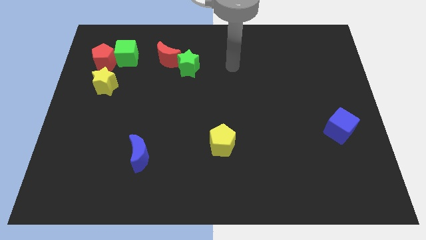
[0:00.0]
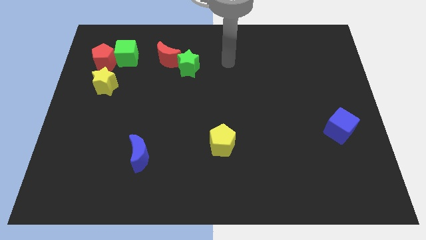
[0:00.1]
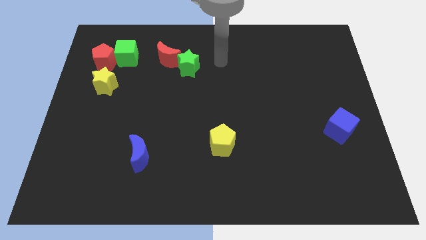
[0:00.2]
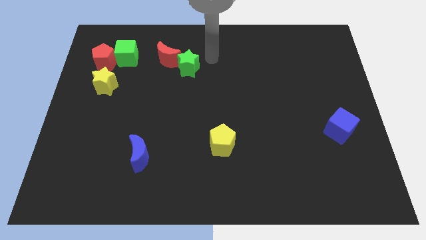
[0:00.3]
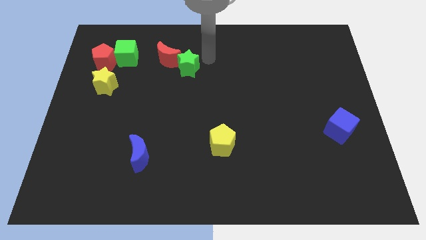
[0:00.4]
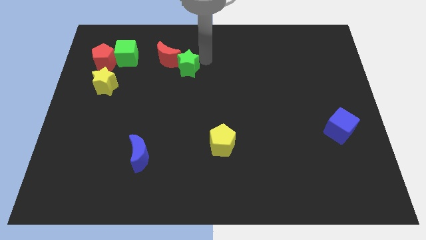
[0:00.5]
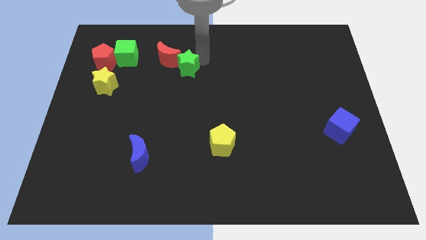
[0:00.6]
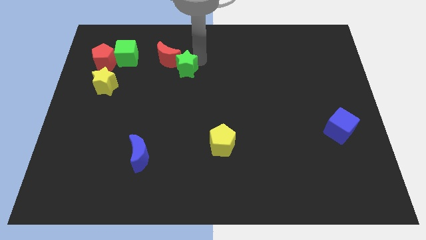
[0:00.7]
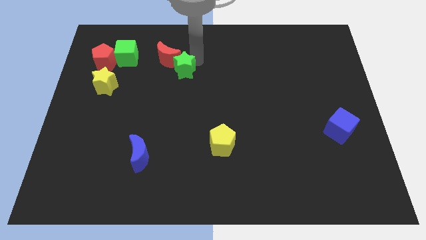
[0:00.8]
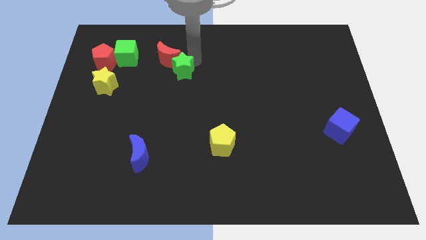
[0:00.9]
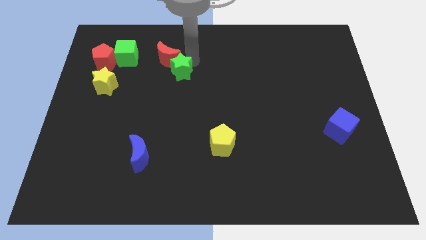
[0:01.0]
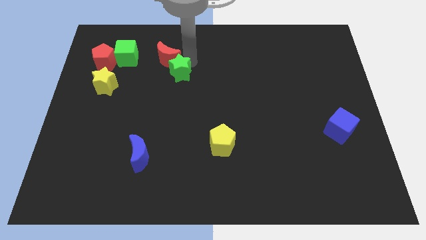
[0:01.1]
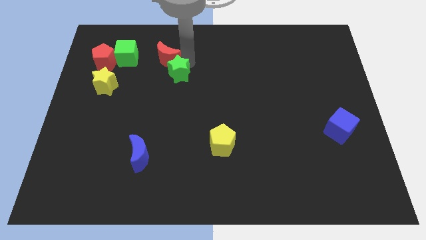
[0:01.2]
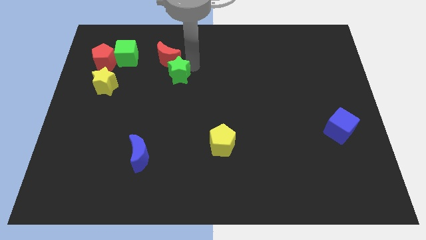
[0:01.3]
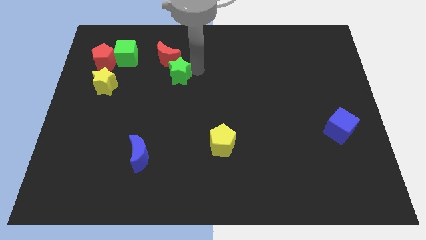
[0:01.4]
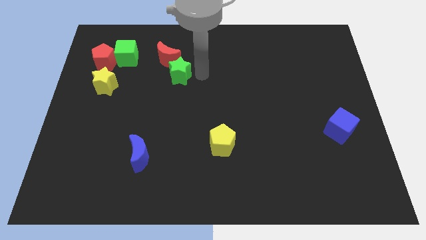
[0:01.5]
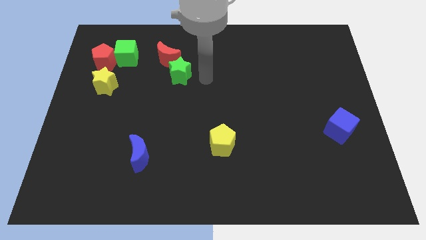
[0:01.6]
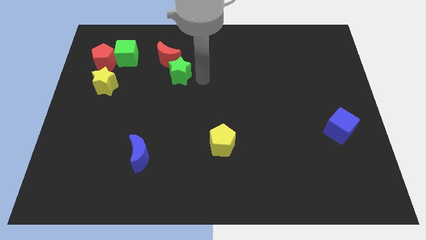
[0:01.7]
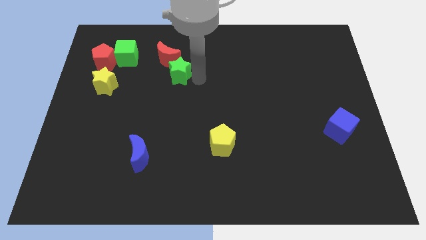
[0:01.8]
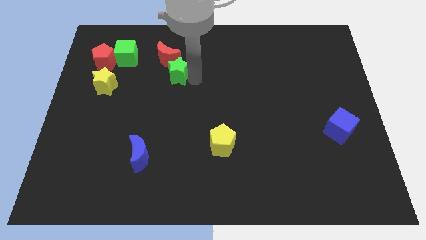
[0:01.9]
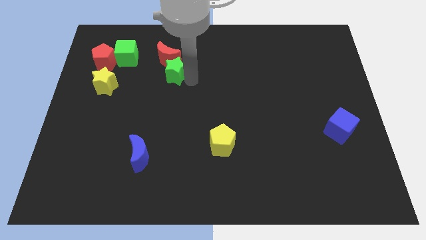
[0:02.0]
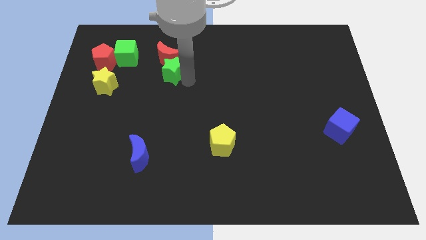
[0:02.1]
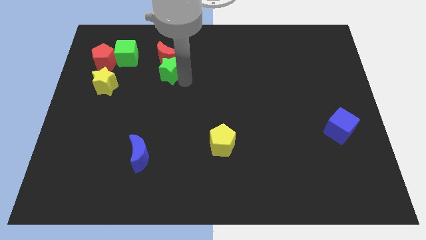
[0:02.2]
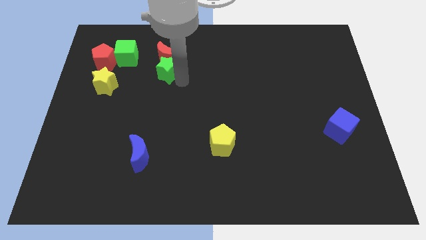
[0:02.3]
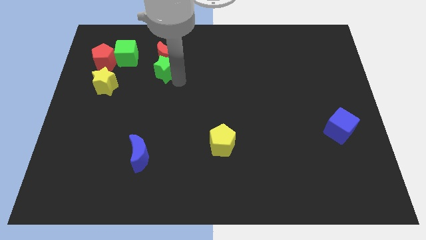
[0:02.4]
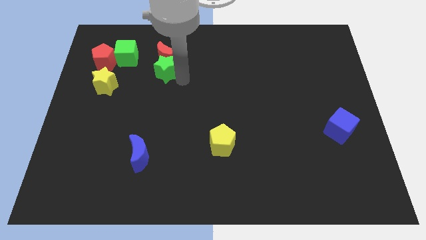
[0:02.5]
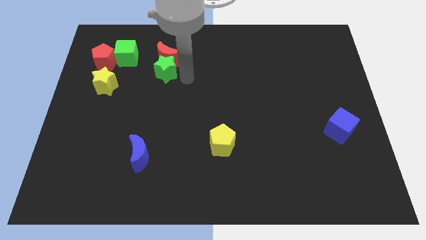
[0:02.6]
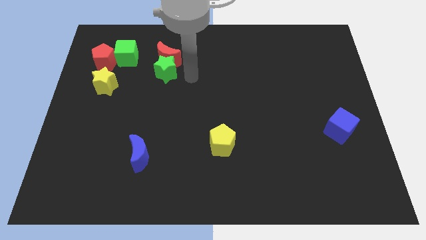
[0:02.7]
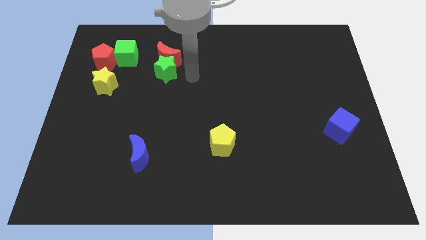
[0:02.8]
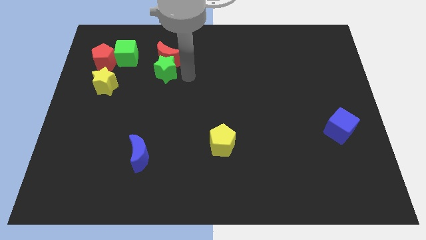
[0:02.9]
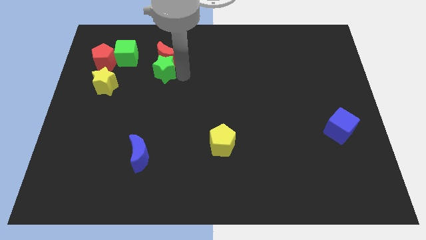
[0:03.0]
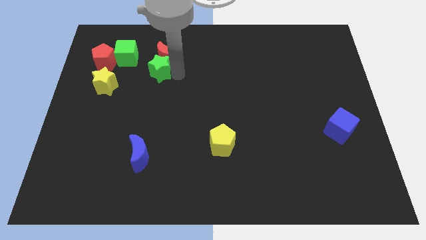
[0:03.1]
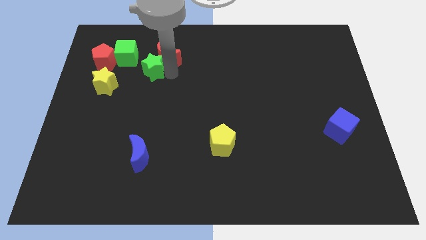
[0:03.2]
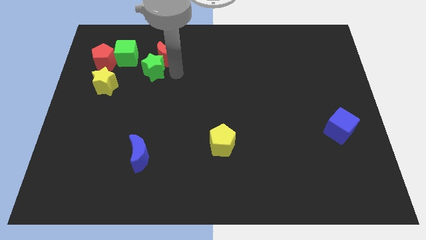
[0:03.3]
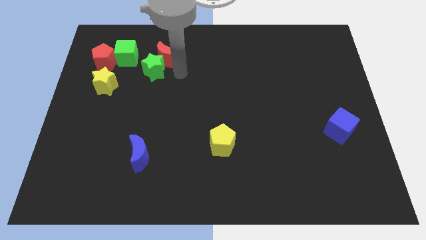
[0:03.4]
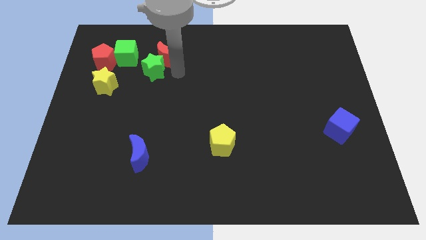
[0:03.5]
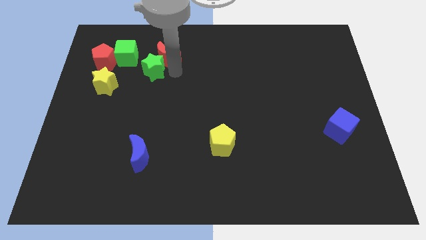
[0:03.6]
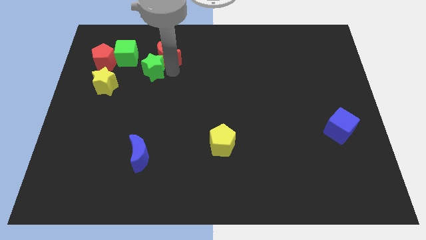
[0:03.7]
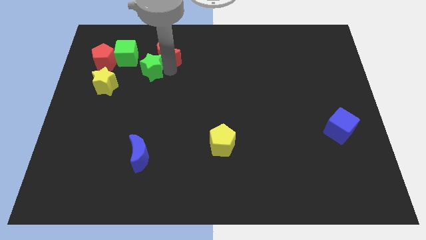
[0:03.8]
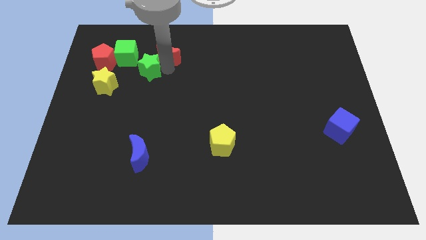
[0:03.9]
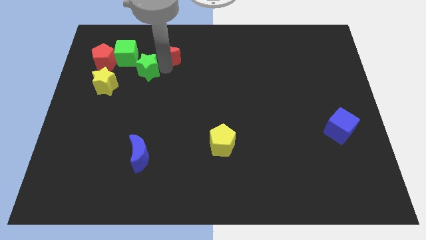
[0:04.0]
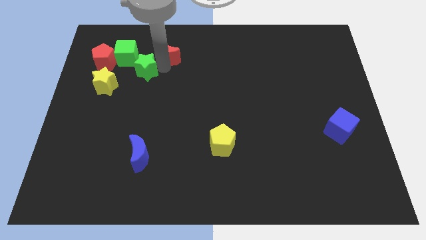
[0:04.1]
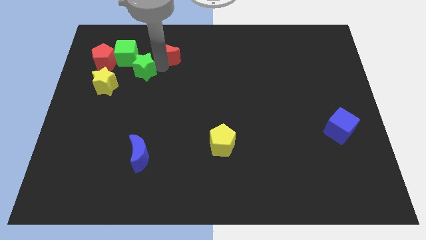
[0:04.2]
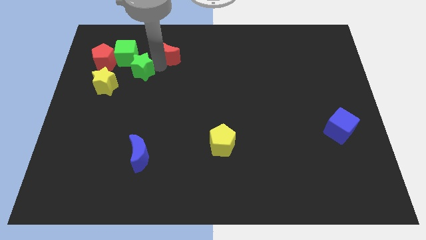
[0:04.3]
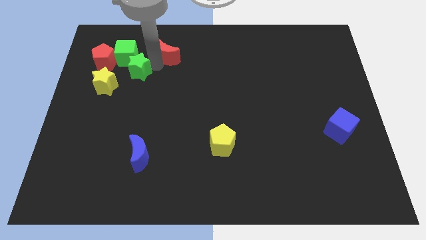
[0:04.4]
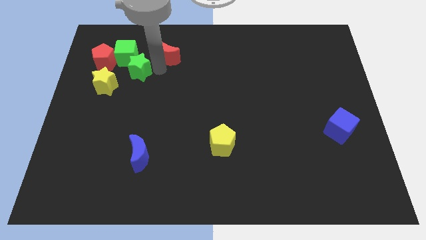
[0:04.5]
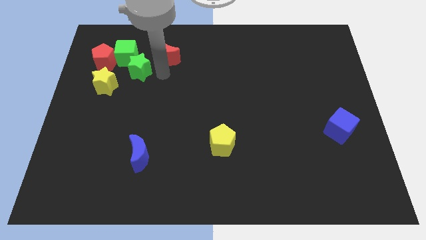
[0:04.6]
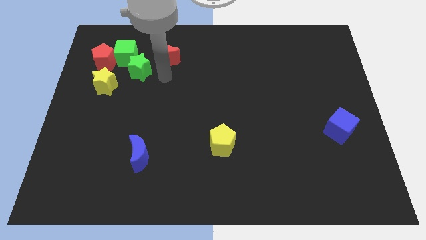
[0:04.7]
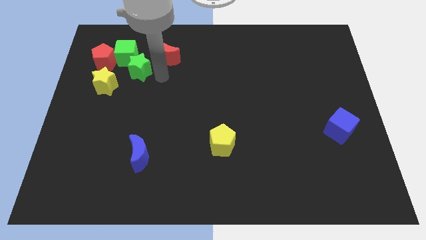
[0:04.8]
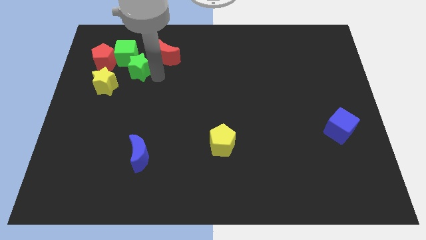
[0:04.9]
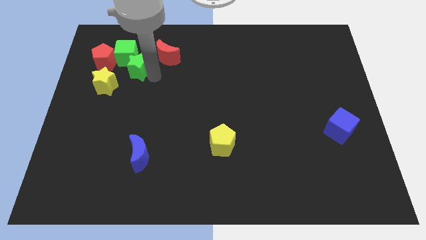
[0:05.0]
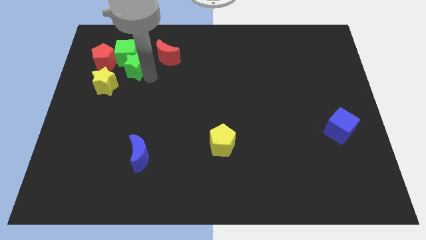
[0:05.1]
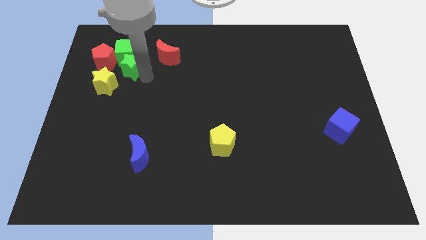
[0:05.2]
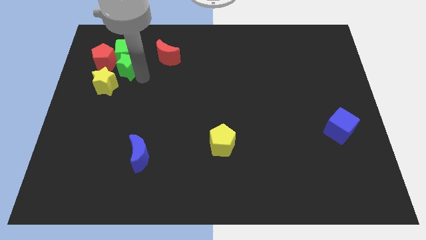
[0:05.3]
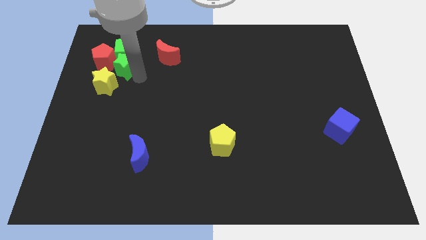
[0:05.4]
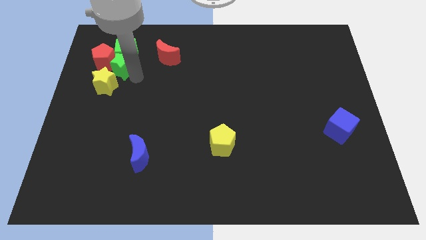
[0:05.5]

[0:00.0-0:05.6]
move the green star next to the red pentagon

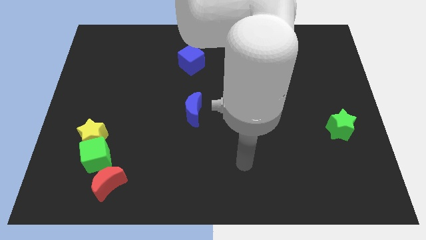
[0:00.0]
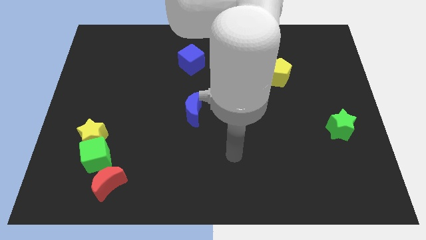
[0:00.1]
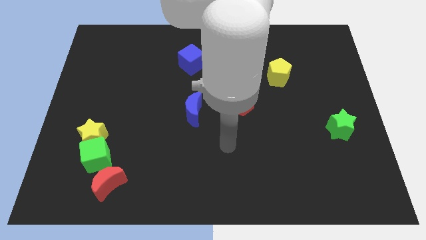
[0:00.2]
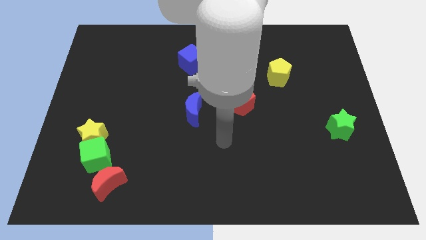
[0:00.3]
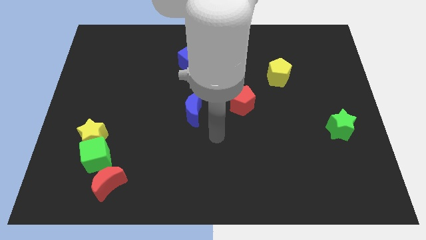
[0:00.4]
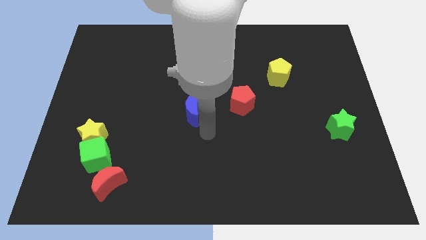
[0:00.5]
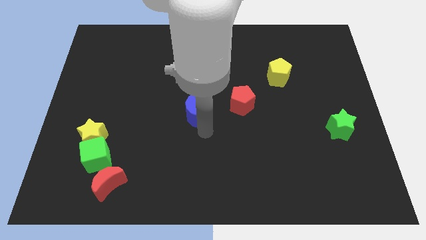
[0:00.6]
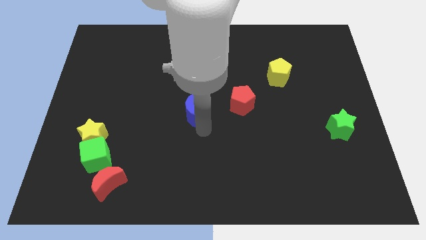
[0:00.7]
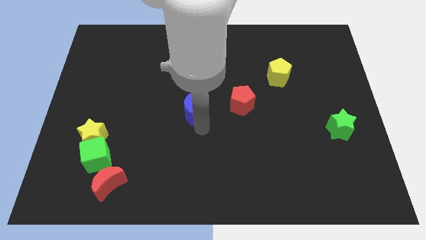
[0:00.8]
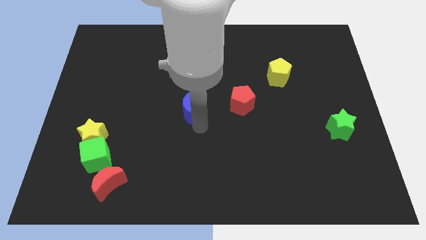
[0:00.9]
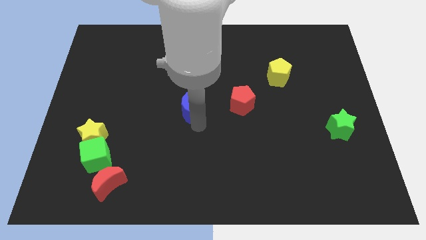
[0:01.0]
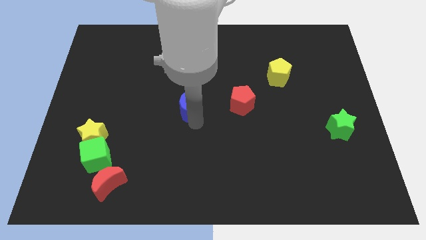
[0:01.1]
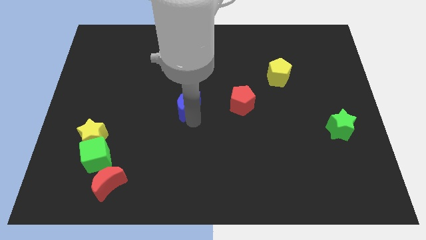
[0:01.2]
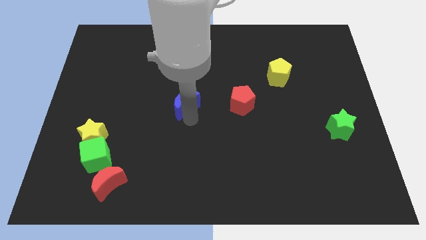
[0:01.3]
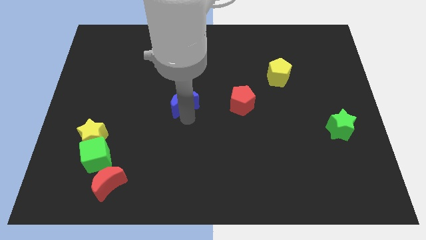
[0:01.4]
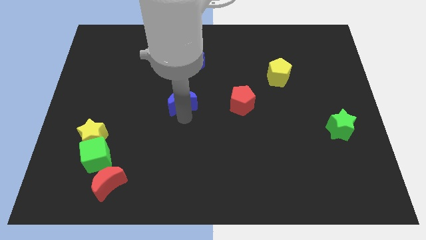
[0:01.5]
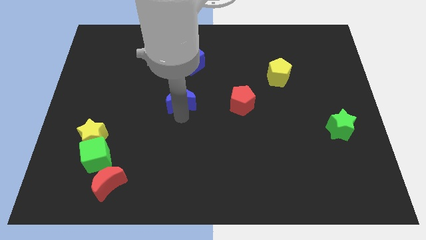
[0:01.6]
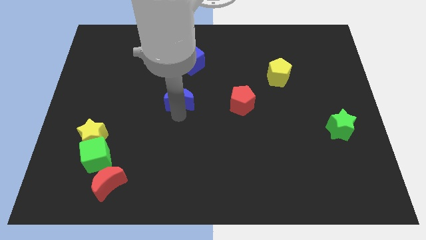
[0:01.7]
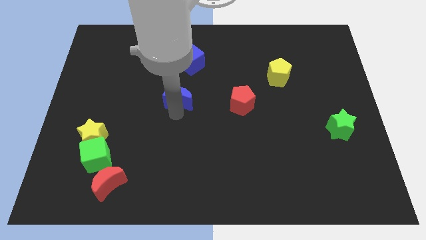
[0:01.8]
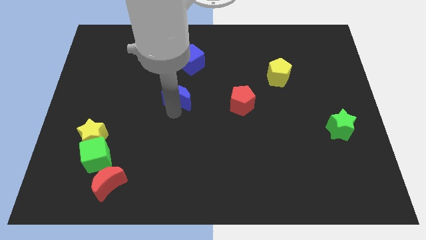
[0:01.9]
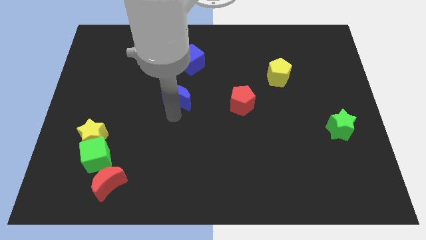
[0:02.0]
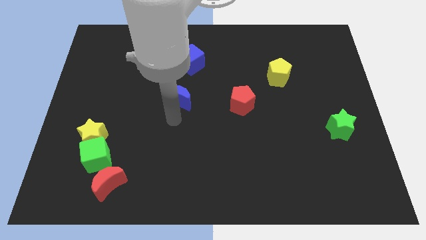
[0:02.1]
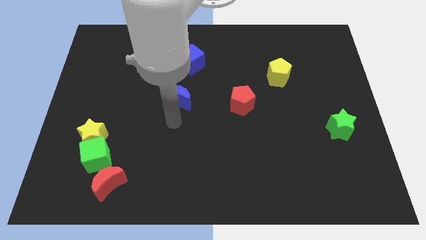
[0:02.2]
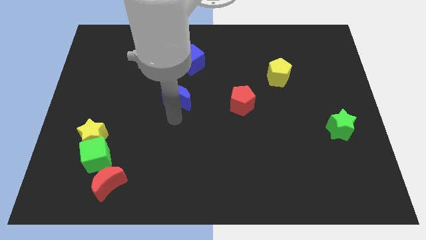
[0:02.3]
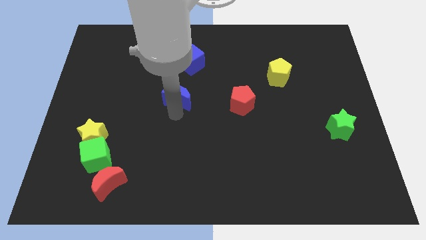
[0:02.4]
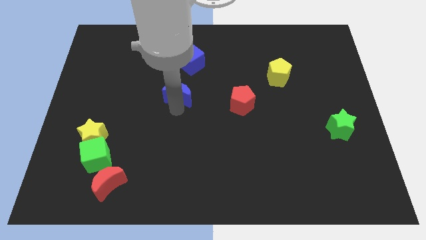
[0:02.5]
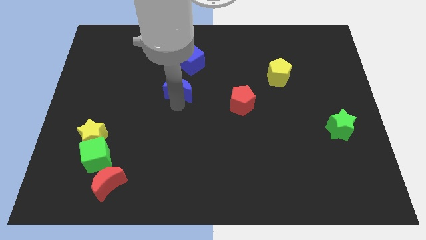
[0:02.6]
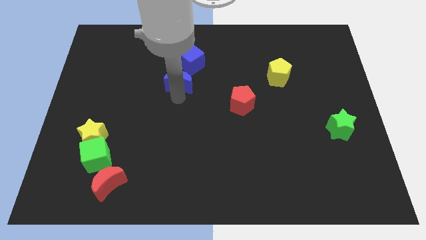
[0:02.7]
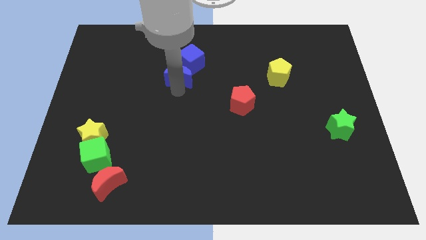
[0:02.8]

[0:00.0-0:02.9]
push the blue moon towards the blue cube
